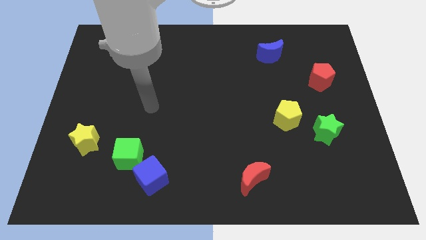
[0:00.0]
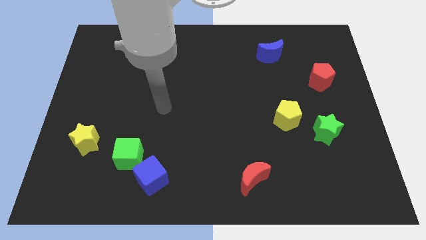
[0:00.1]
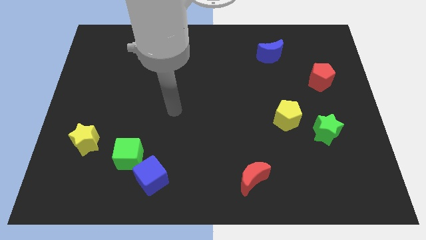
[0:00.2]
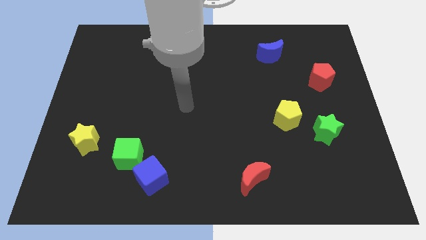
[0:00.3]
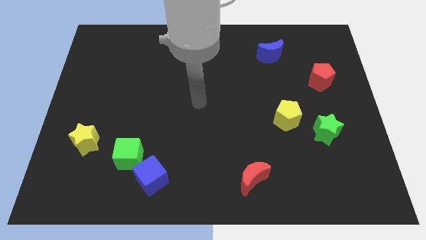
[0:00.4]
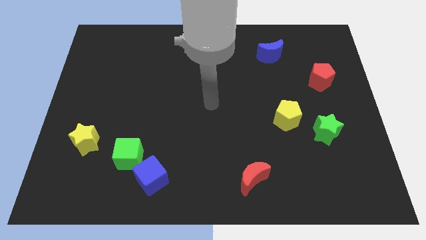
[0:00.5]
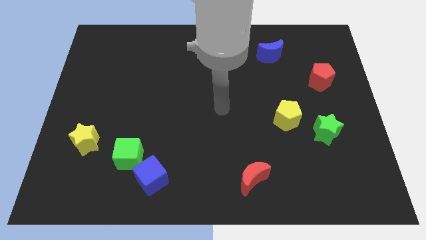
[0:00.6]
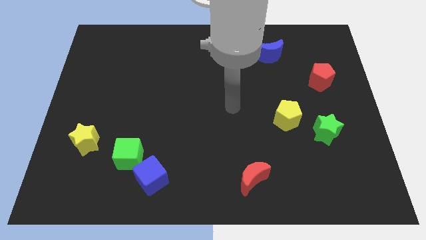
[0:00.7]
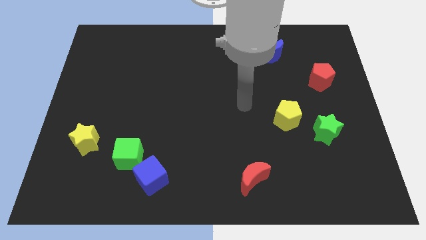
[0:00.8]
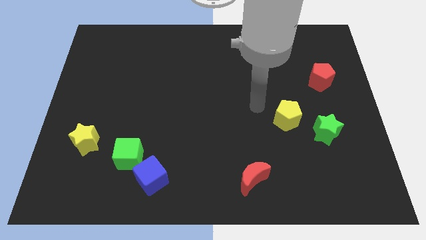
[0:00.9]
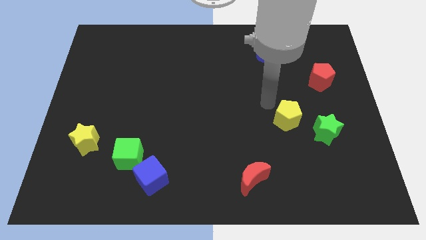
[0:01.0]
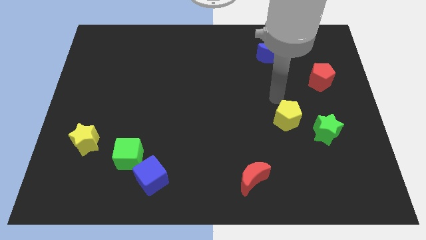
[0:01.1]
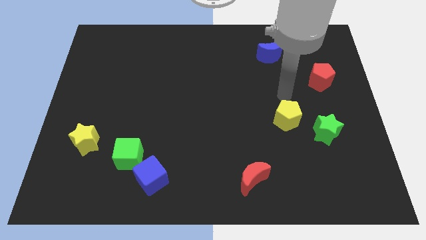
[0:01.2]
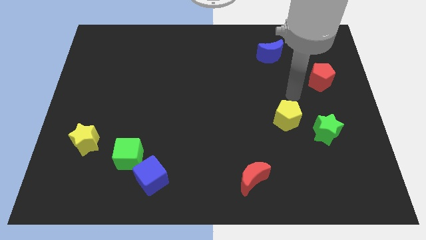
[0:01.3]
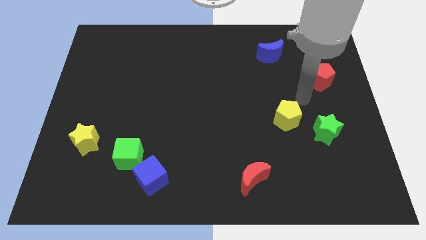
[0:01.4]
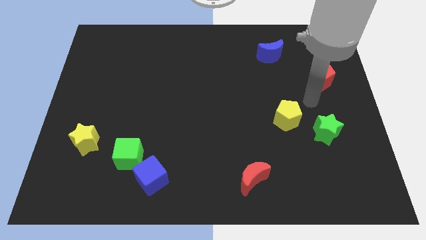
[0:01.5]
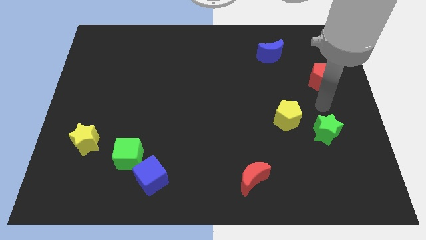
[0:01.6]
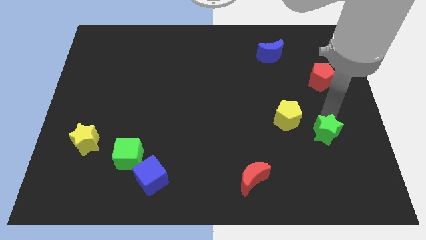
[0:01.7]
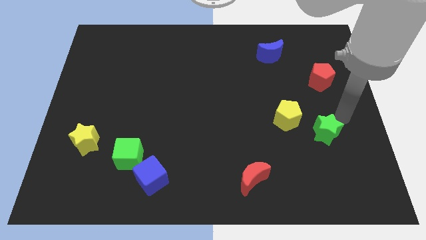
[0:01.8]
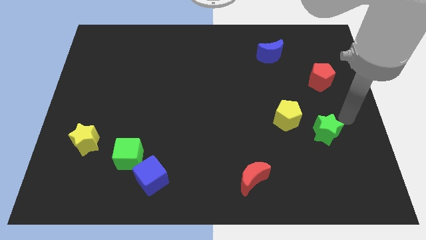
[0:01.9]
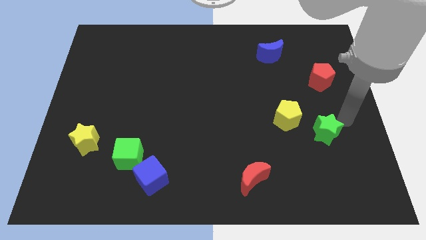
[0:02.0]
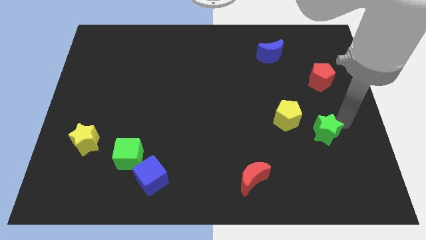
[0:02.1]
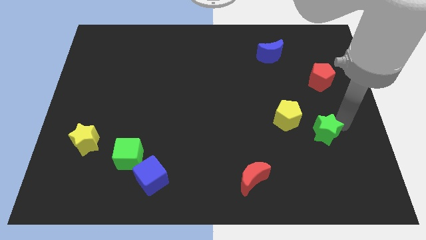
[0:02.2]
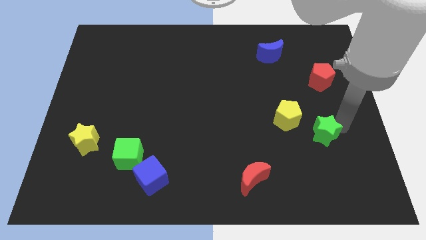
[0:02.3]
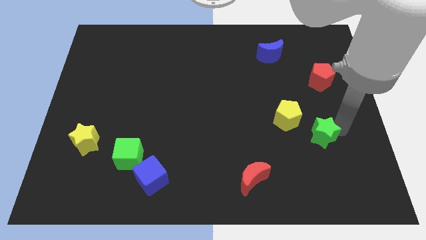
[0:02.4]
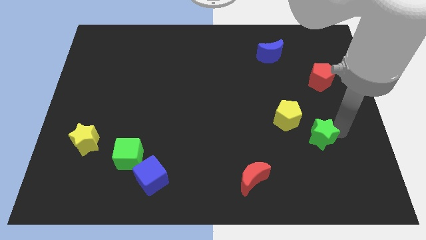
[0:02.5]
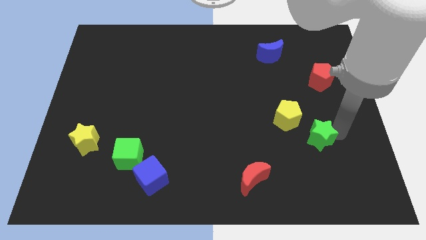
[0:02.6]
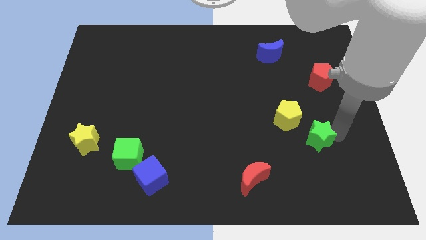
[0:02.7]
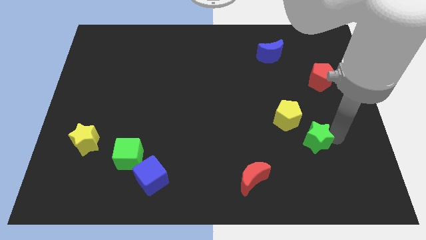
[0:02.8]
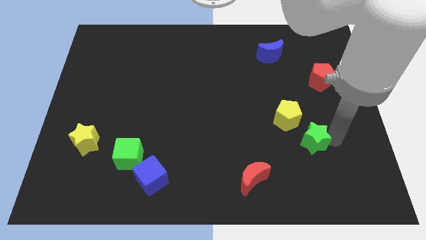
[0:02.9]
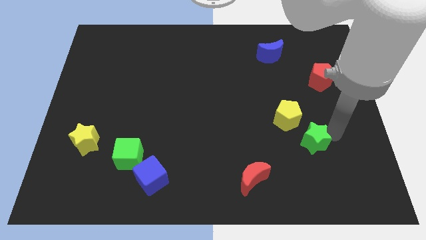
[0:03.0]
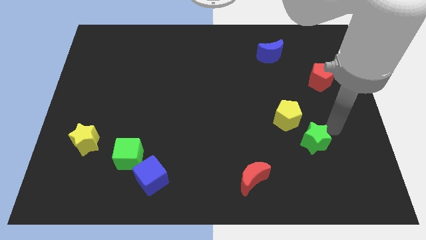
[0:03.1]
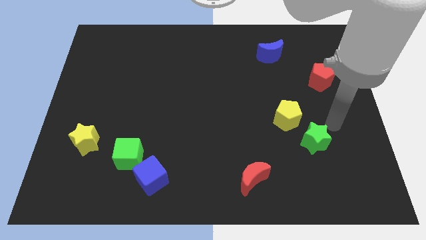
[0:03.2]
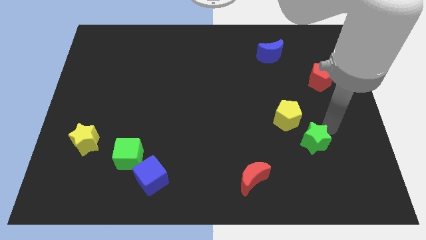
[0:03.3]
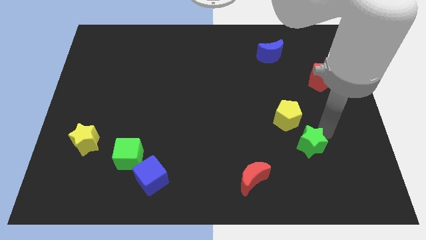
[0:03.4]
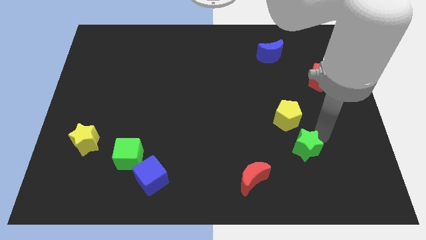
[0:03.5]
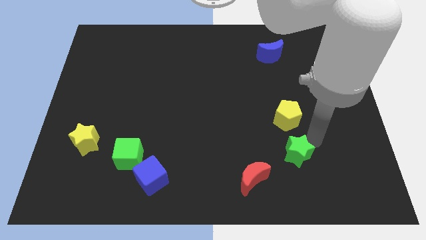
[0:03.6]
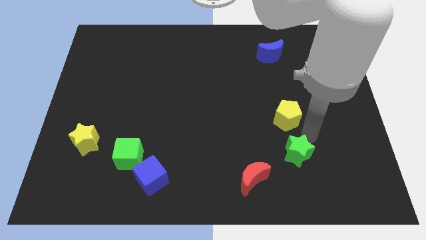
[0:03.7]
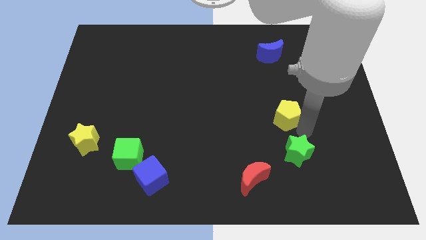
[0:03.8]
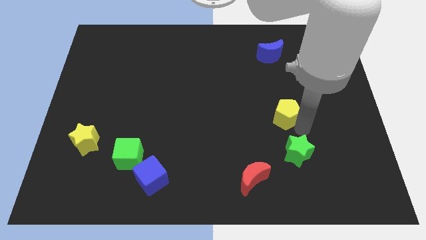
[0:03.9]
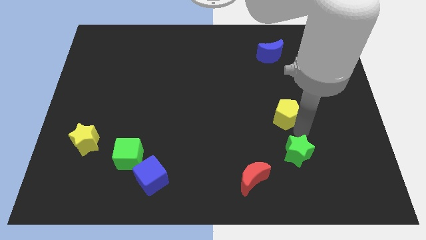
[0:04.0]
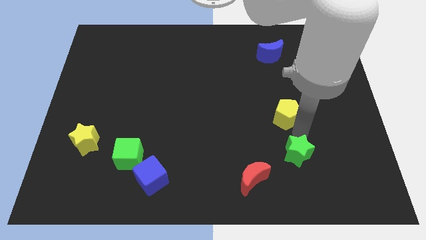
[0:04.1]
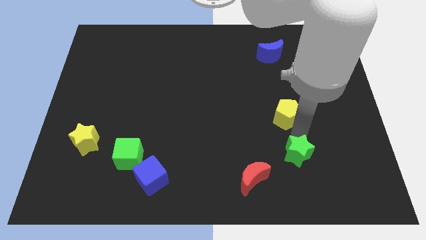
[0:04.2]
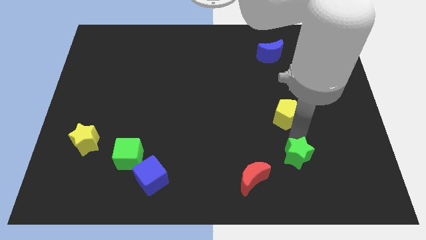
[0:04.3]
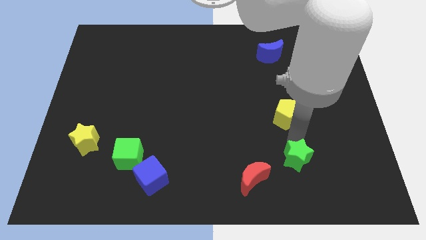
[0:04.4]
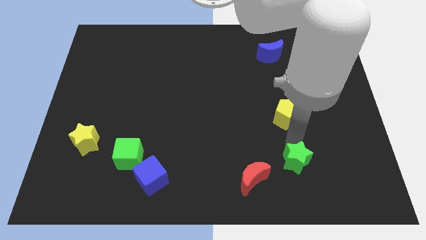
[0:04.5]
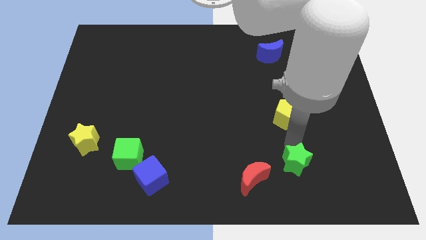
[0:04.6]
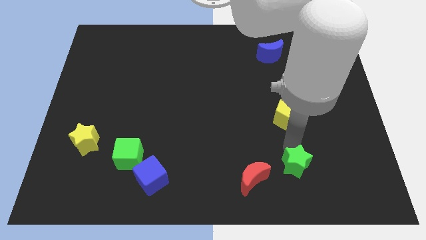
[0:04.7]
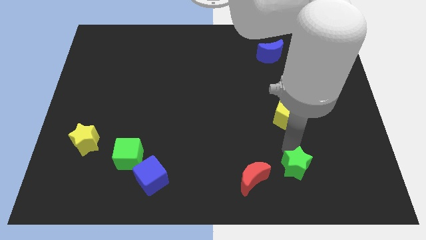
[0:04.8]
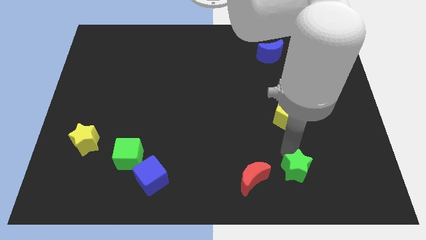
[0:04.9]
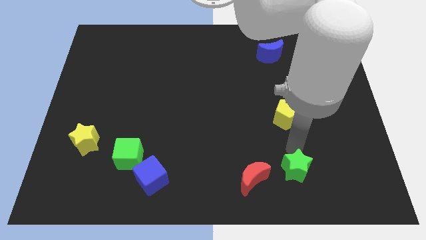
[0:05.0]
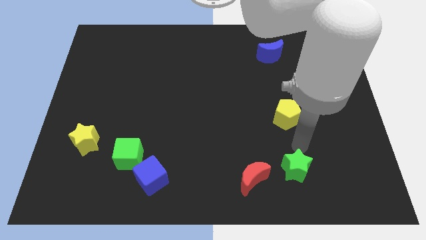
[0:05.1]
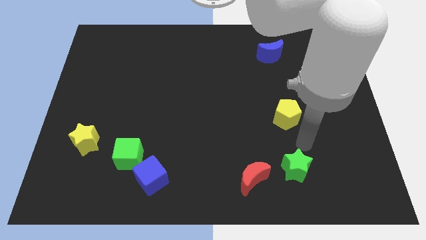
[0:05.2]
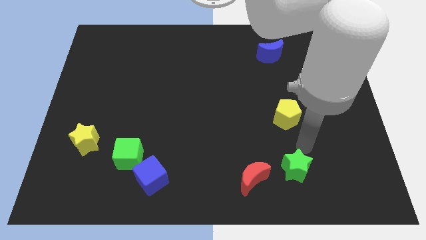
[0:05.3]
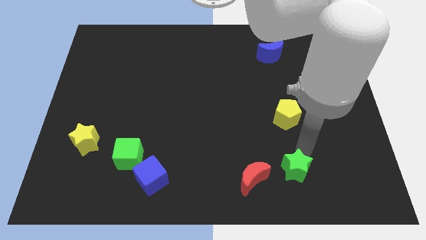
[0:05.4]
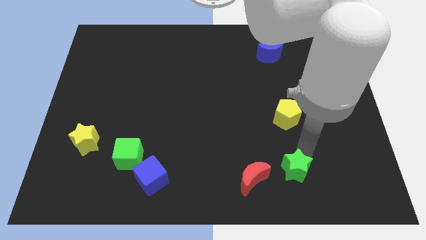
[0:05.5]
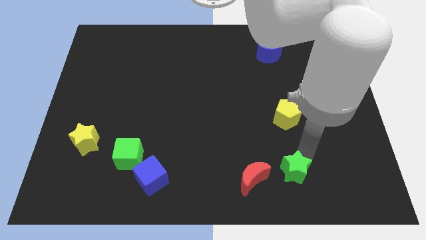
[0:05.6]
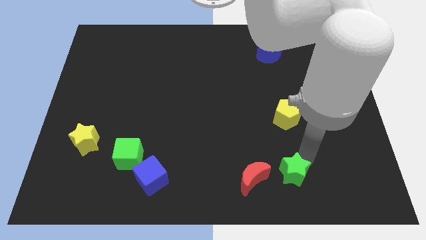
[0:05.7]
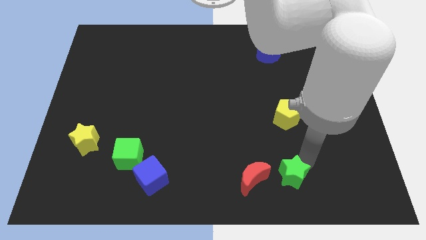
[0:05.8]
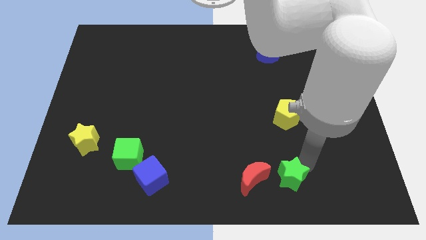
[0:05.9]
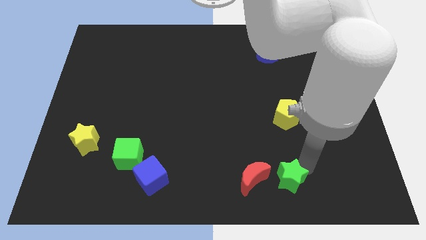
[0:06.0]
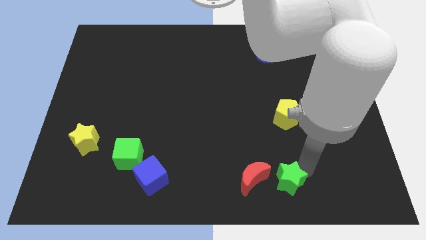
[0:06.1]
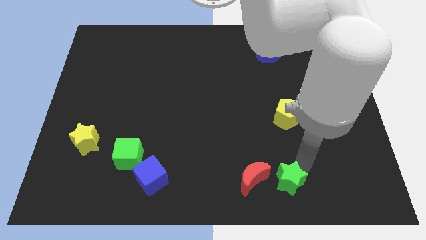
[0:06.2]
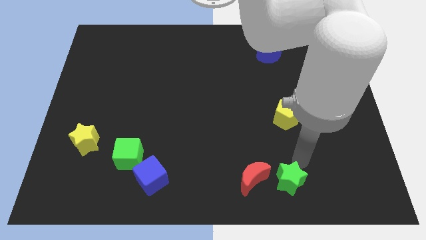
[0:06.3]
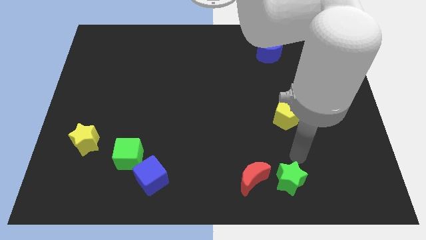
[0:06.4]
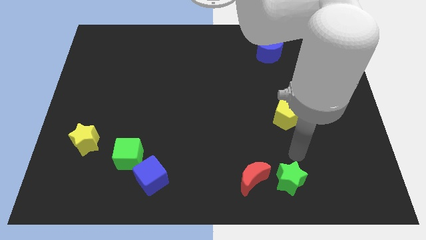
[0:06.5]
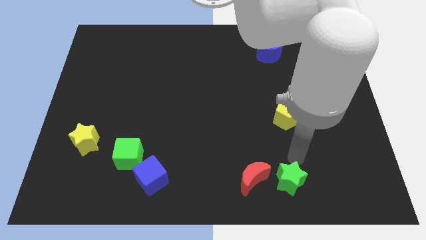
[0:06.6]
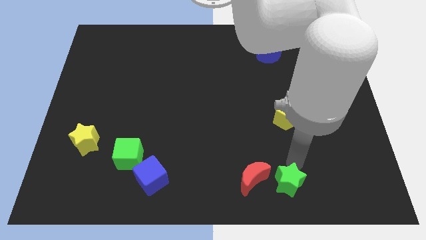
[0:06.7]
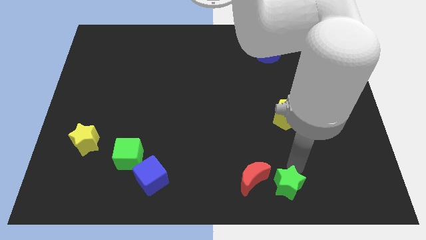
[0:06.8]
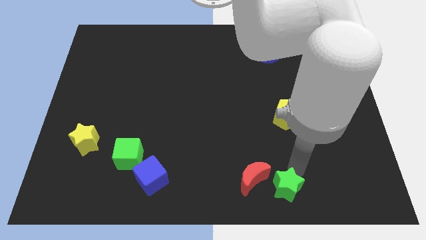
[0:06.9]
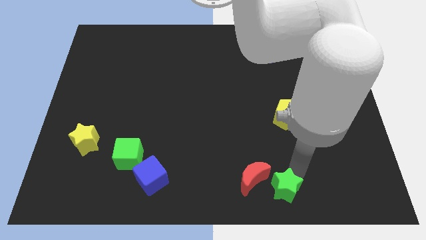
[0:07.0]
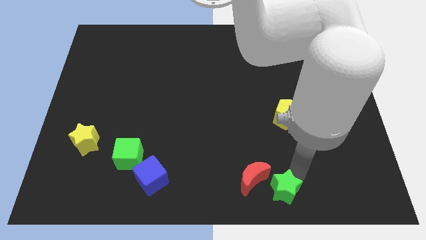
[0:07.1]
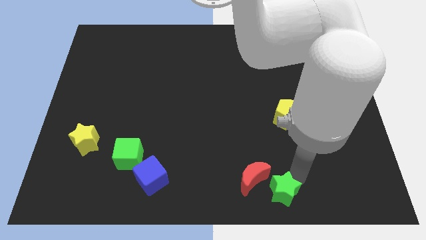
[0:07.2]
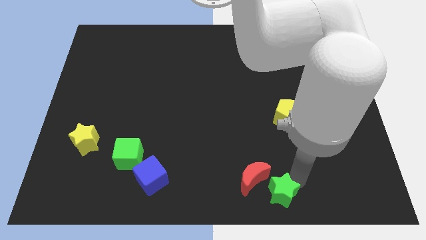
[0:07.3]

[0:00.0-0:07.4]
slide the green star to the bottom side

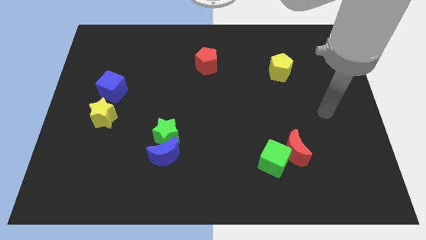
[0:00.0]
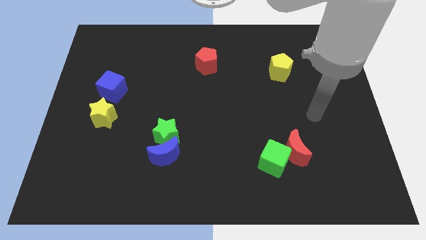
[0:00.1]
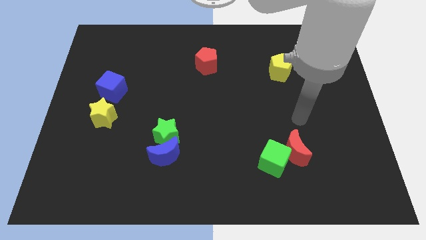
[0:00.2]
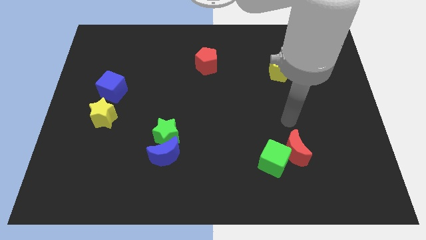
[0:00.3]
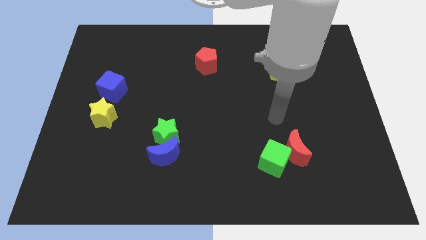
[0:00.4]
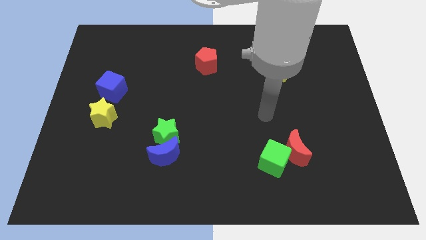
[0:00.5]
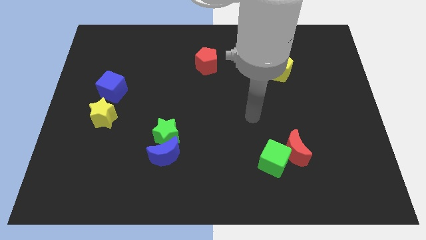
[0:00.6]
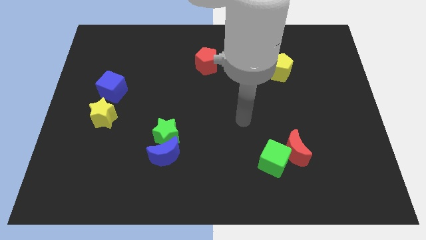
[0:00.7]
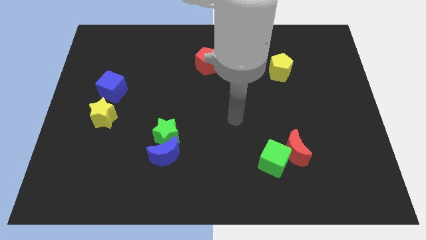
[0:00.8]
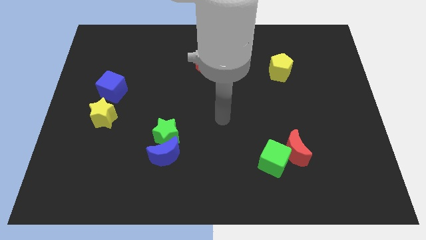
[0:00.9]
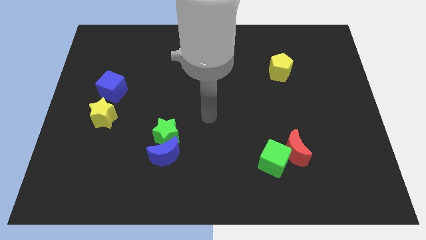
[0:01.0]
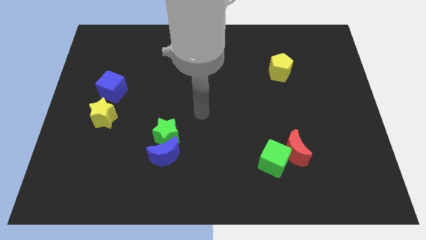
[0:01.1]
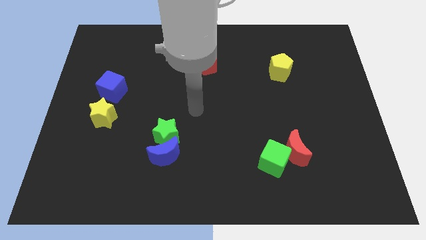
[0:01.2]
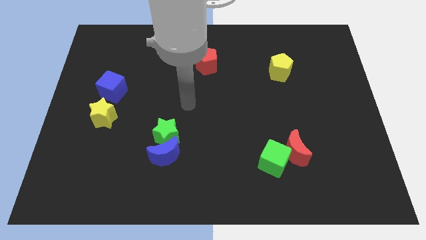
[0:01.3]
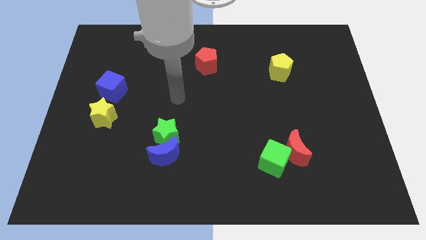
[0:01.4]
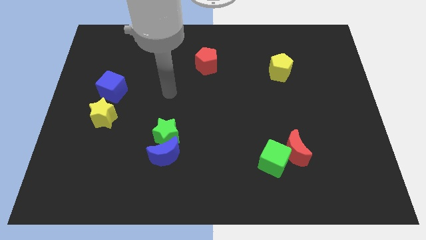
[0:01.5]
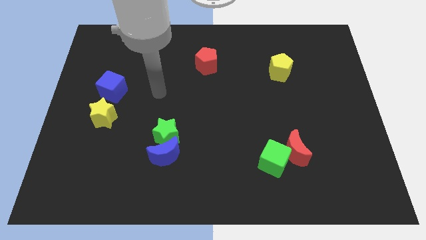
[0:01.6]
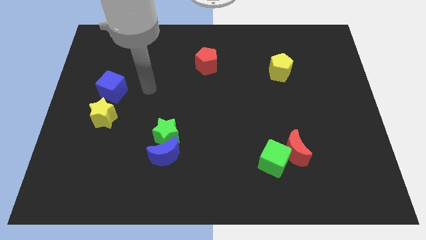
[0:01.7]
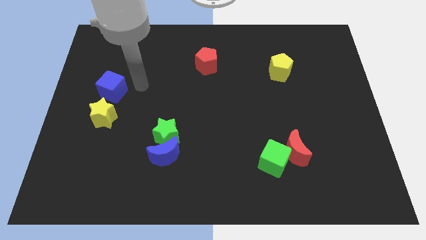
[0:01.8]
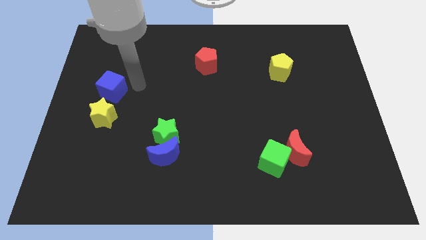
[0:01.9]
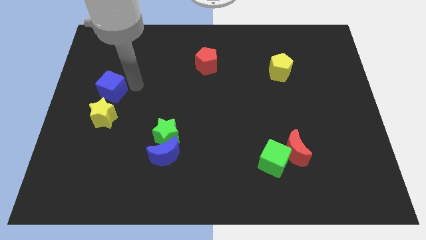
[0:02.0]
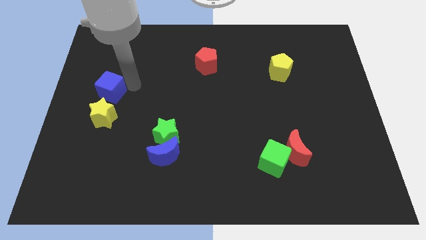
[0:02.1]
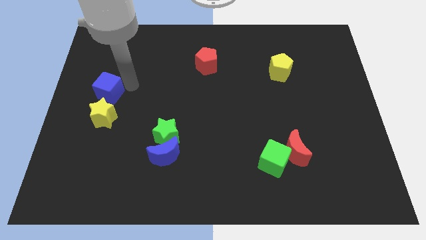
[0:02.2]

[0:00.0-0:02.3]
slide the blue cube to the left side of the board
